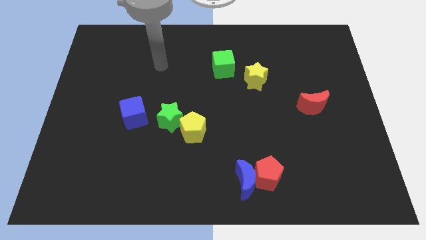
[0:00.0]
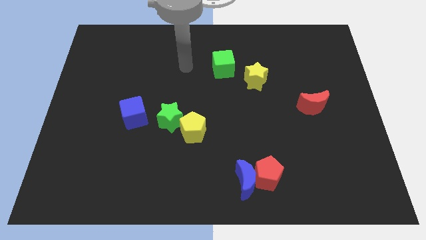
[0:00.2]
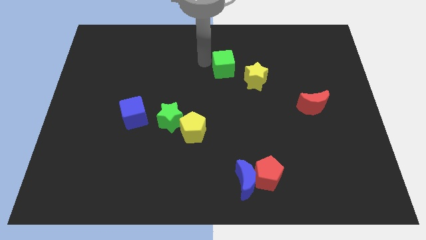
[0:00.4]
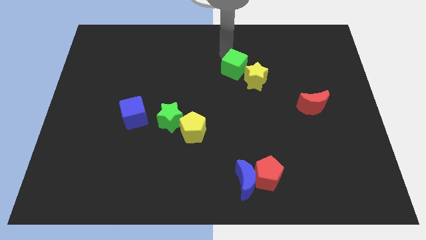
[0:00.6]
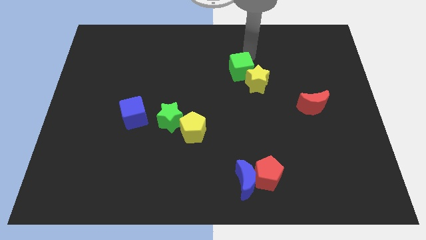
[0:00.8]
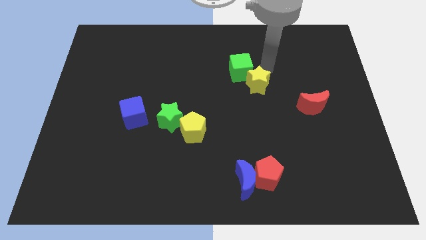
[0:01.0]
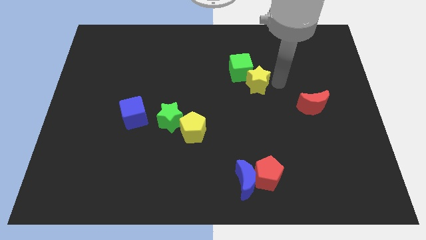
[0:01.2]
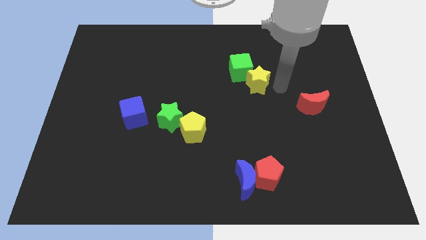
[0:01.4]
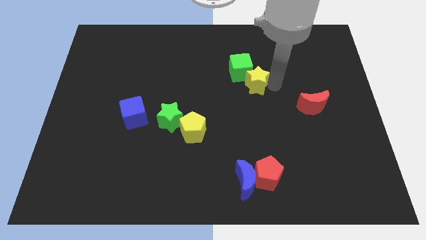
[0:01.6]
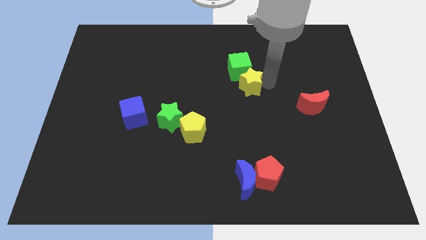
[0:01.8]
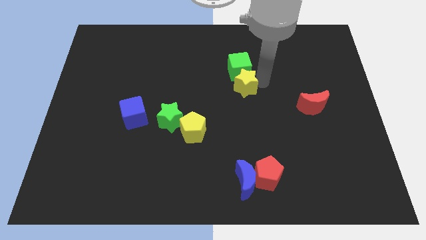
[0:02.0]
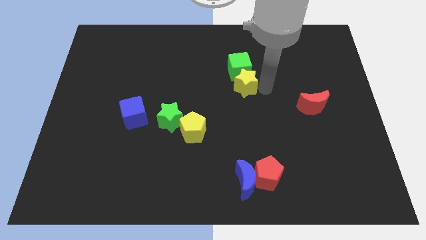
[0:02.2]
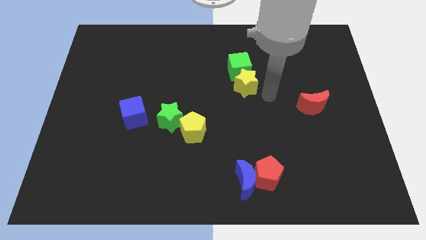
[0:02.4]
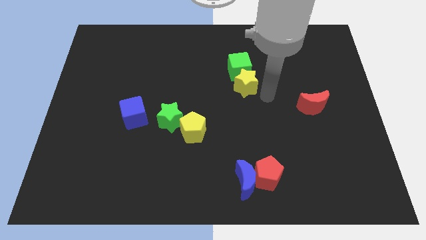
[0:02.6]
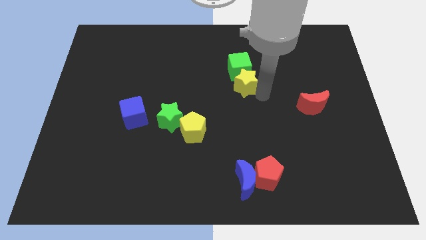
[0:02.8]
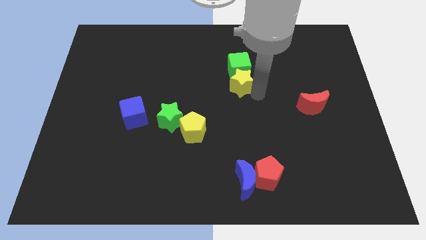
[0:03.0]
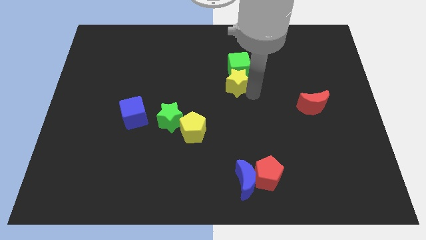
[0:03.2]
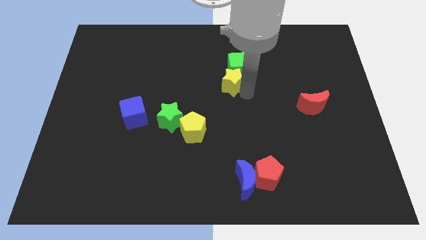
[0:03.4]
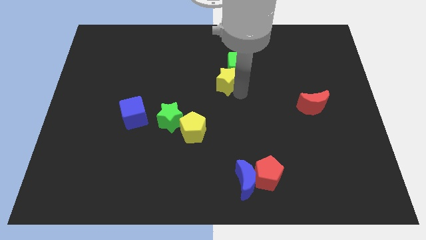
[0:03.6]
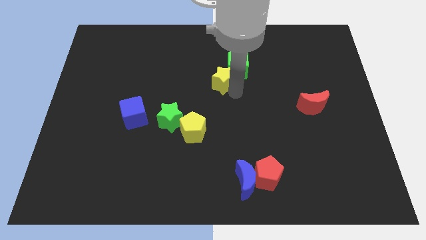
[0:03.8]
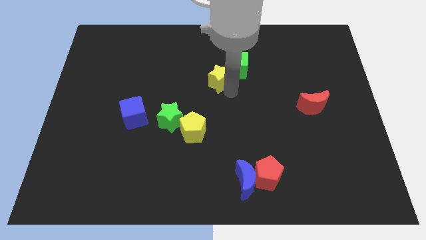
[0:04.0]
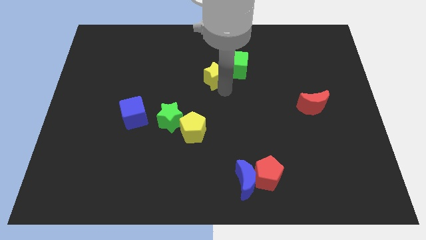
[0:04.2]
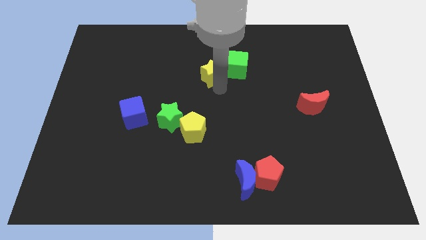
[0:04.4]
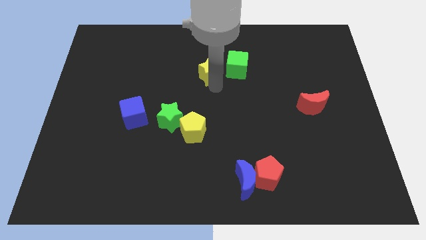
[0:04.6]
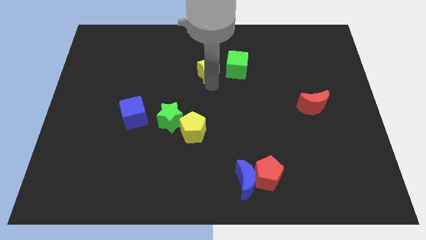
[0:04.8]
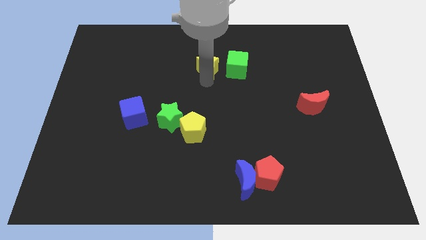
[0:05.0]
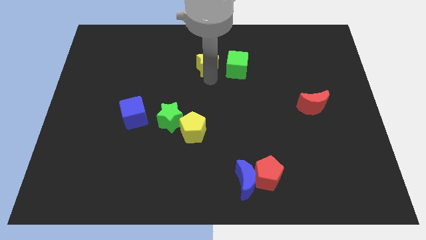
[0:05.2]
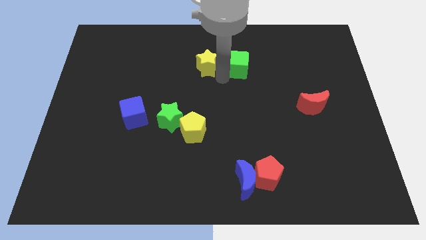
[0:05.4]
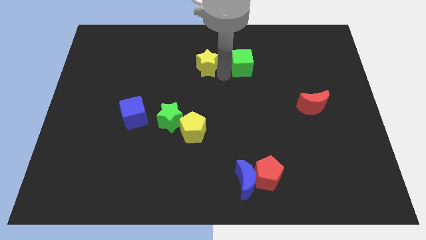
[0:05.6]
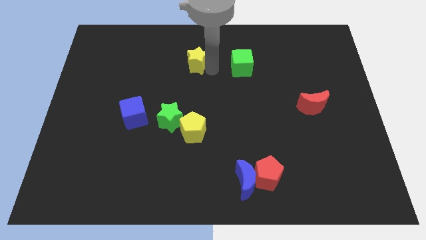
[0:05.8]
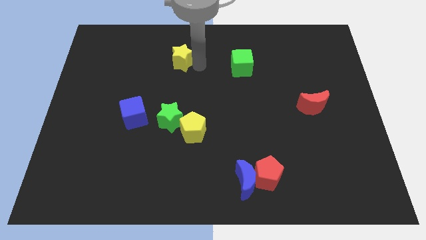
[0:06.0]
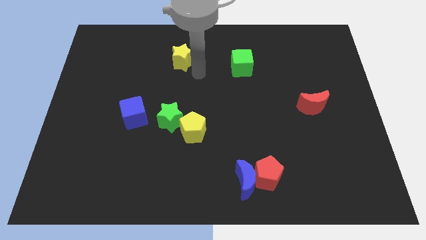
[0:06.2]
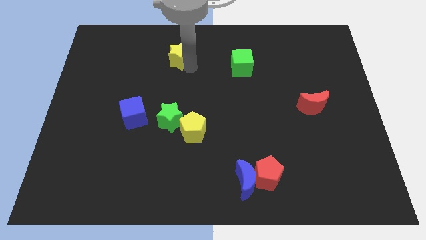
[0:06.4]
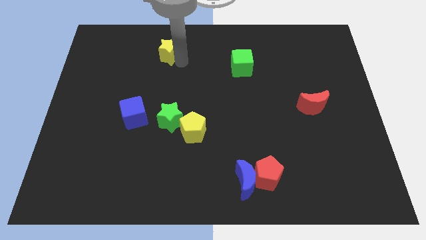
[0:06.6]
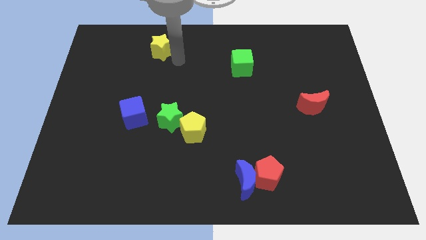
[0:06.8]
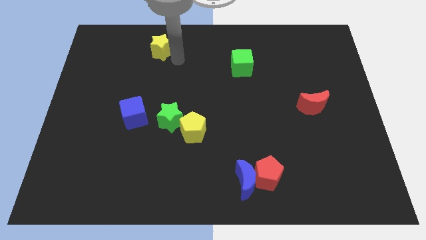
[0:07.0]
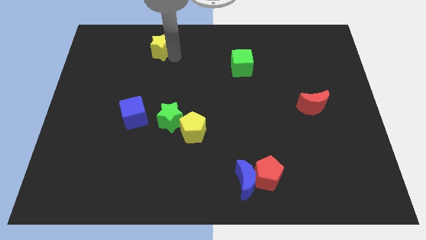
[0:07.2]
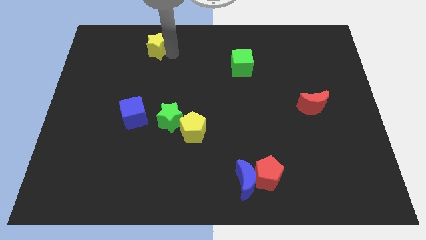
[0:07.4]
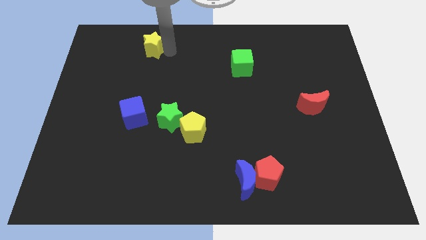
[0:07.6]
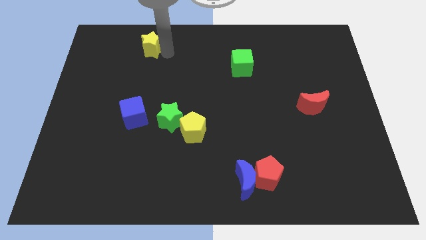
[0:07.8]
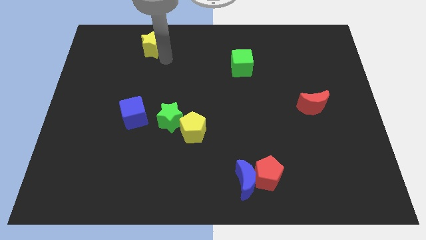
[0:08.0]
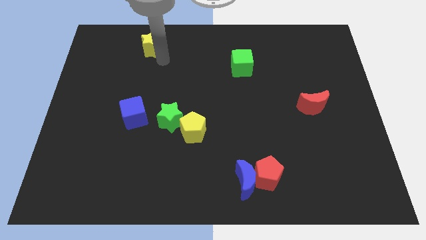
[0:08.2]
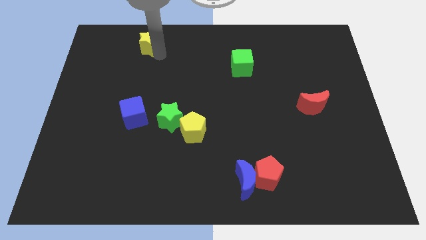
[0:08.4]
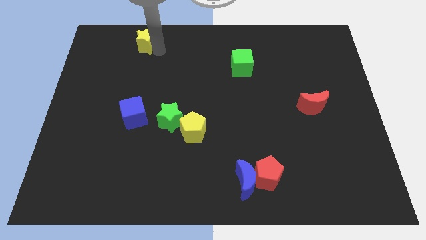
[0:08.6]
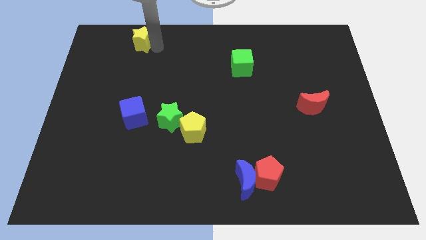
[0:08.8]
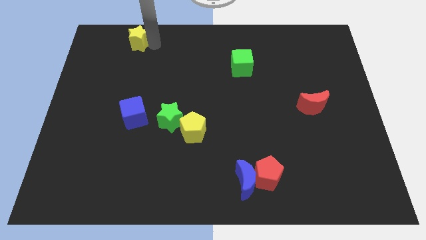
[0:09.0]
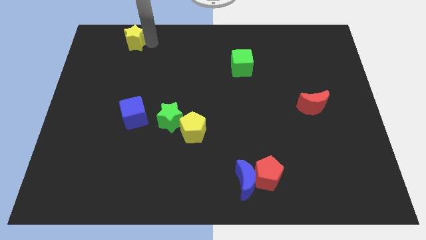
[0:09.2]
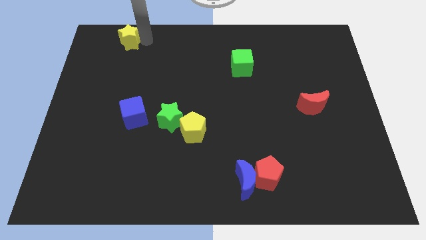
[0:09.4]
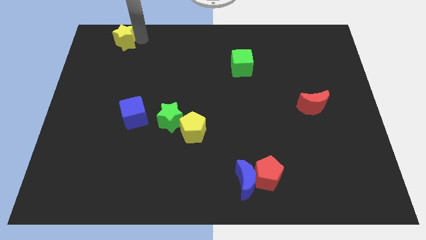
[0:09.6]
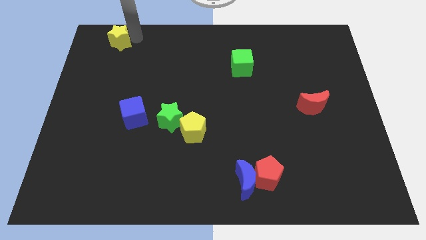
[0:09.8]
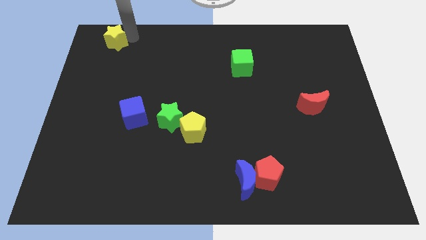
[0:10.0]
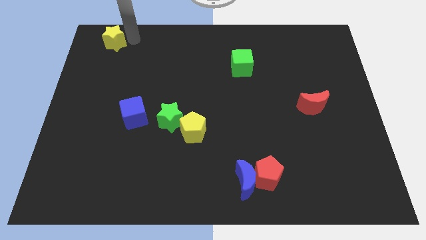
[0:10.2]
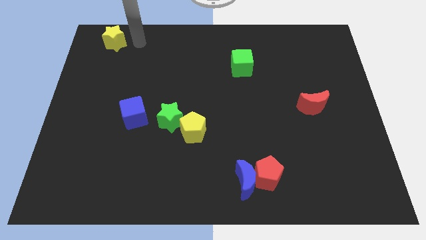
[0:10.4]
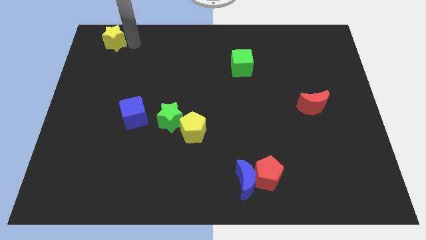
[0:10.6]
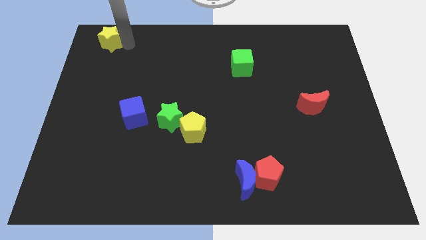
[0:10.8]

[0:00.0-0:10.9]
push the yellow star to the top left
